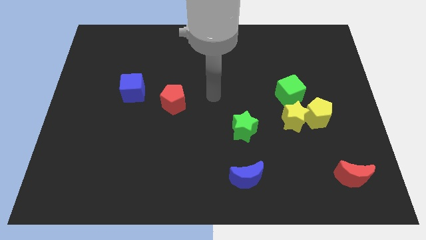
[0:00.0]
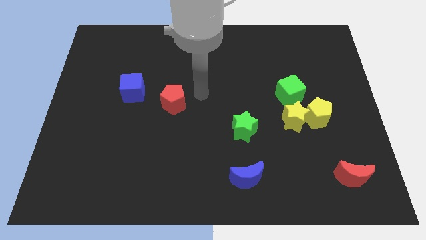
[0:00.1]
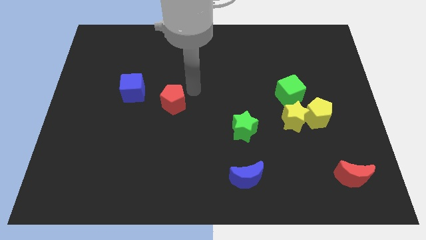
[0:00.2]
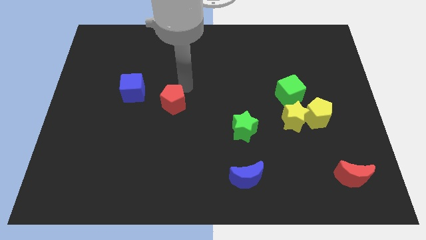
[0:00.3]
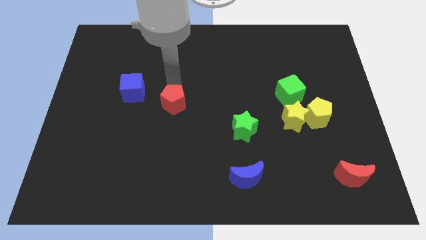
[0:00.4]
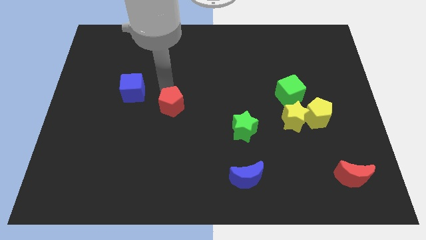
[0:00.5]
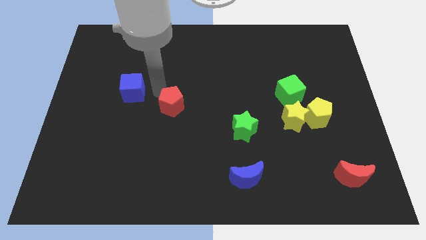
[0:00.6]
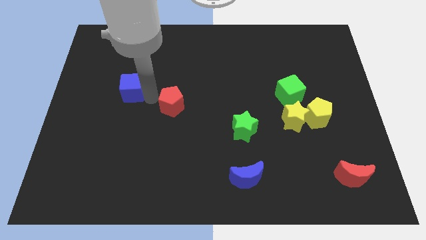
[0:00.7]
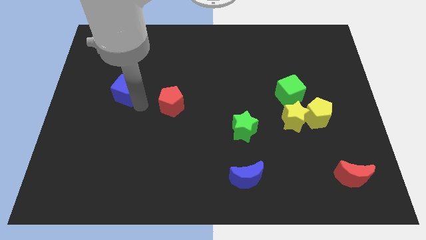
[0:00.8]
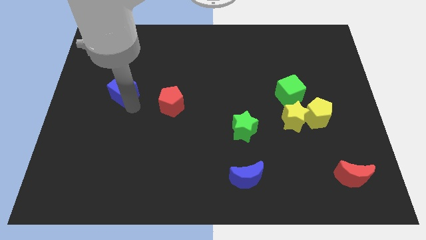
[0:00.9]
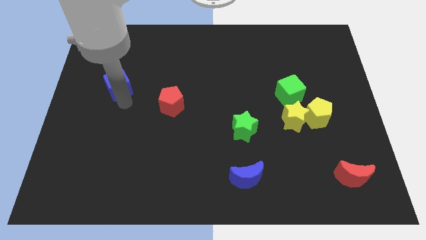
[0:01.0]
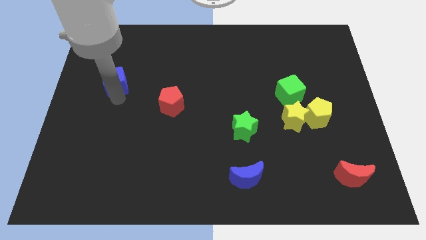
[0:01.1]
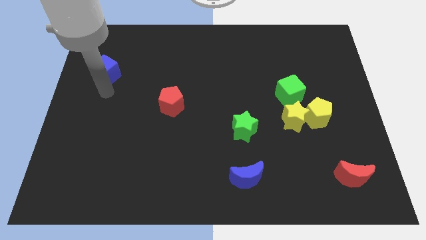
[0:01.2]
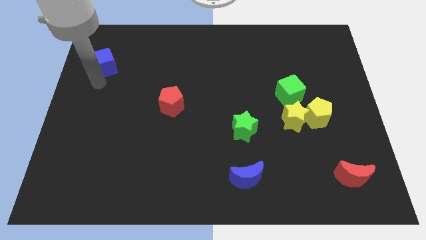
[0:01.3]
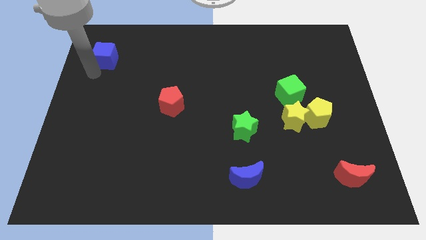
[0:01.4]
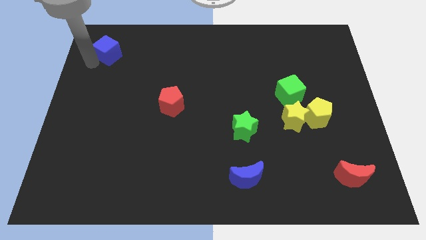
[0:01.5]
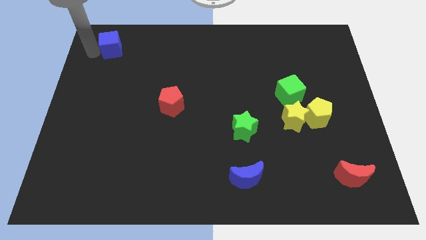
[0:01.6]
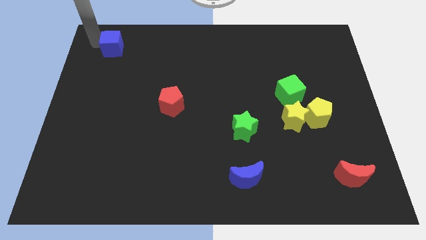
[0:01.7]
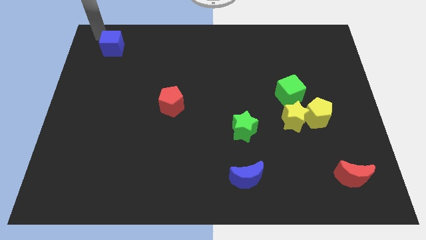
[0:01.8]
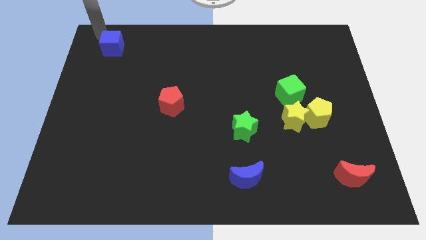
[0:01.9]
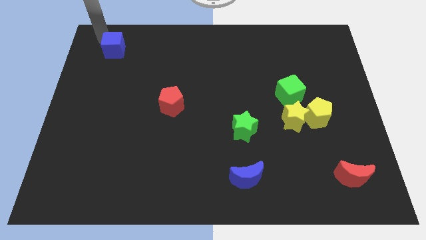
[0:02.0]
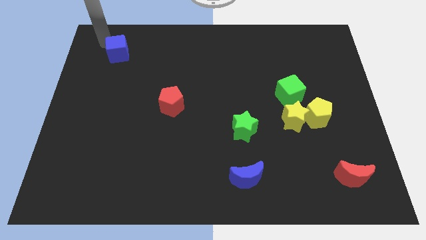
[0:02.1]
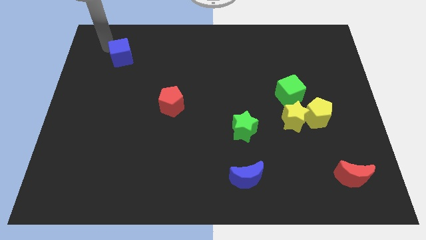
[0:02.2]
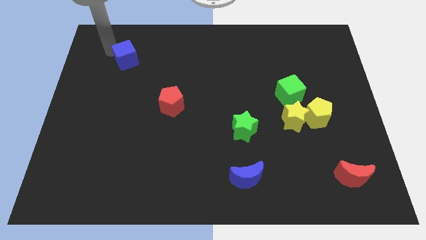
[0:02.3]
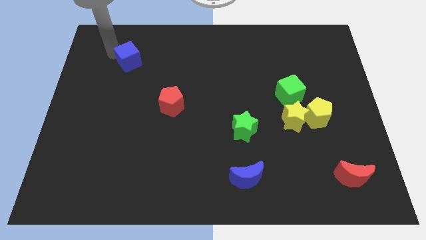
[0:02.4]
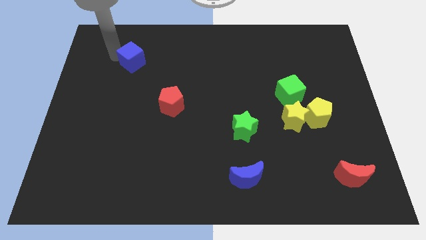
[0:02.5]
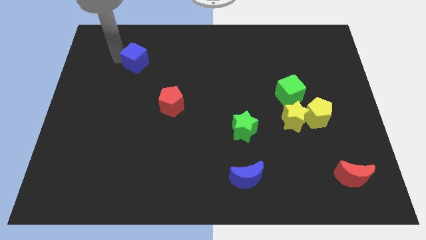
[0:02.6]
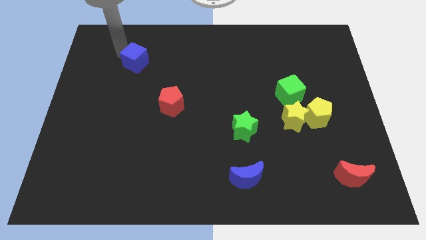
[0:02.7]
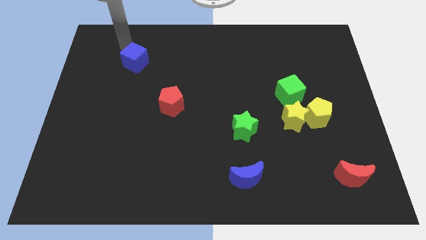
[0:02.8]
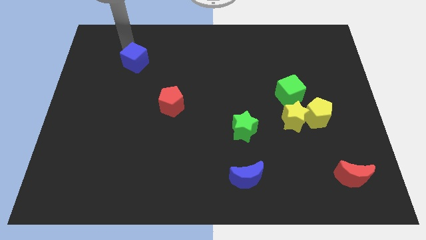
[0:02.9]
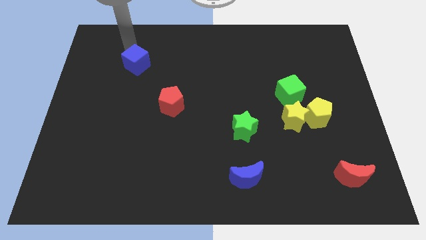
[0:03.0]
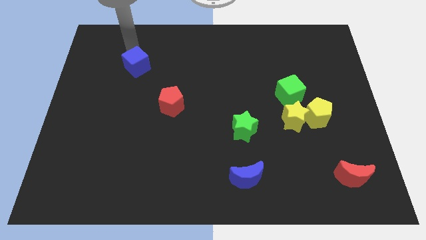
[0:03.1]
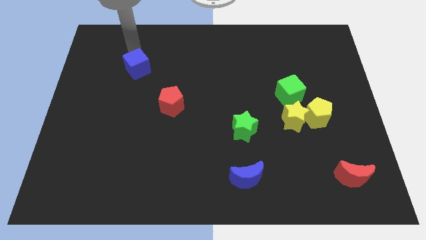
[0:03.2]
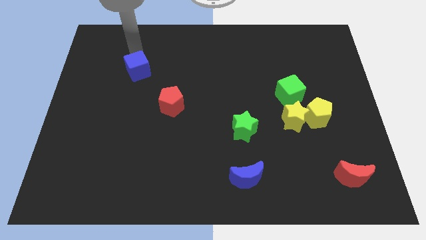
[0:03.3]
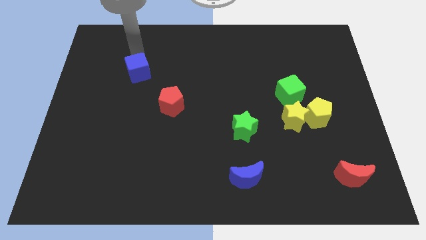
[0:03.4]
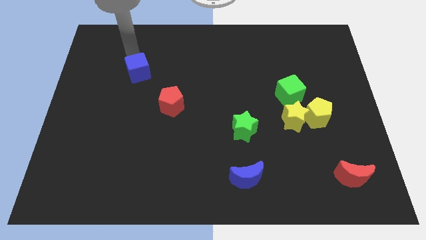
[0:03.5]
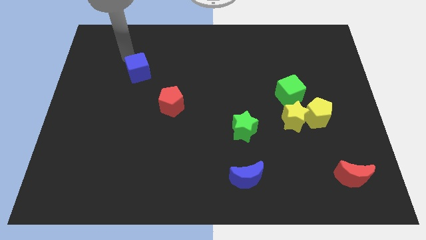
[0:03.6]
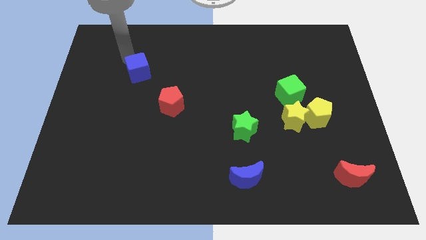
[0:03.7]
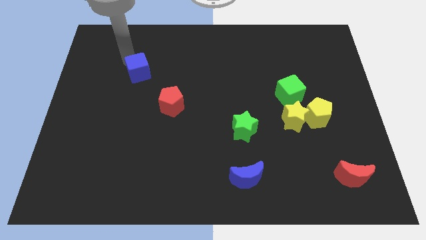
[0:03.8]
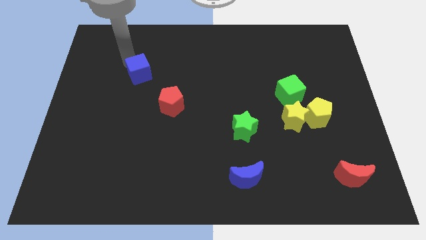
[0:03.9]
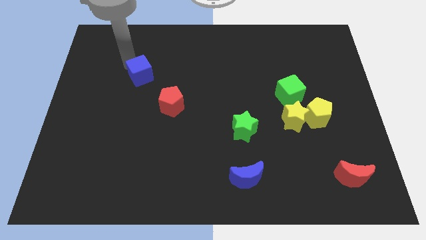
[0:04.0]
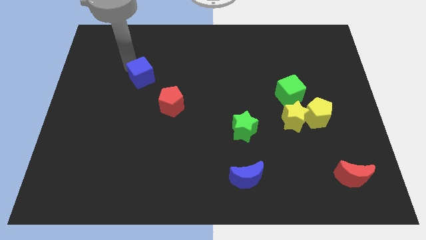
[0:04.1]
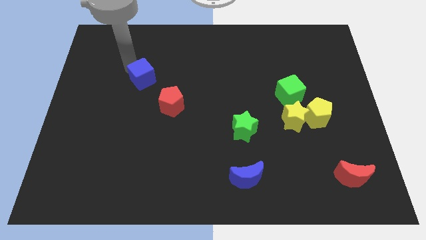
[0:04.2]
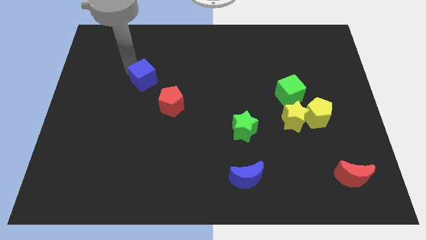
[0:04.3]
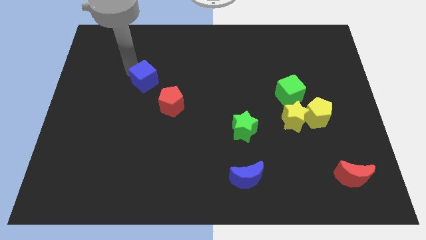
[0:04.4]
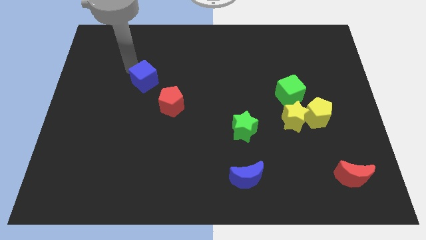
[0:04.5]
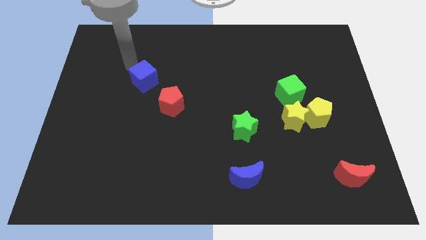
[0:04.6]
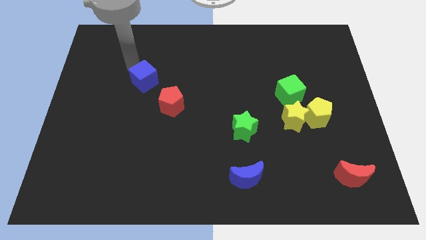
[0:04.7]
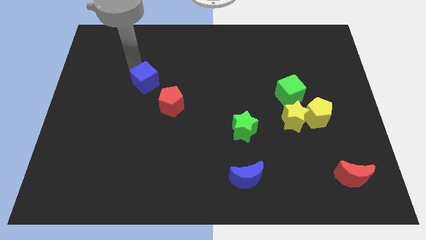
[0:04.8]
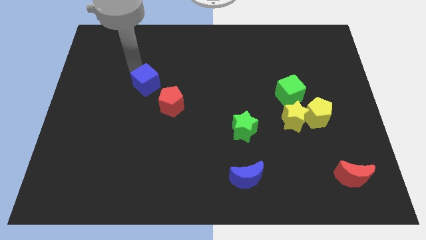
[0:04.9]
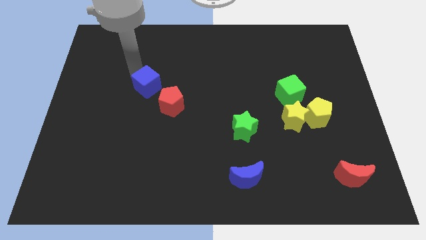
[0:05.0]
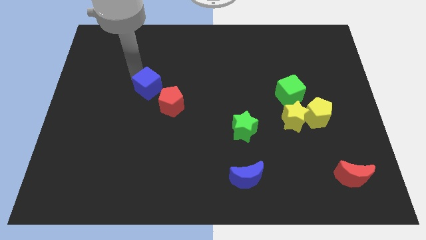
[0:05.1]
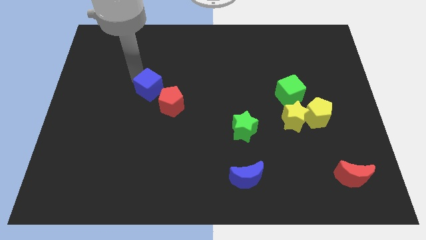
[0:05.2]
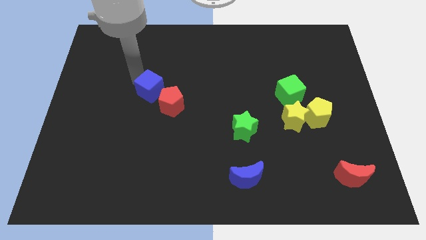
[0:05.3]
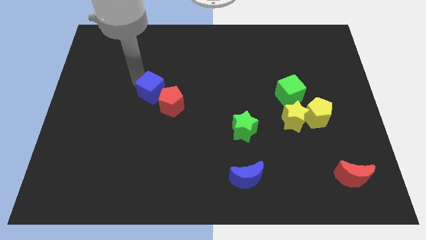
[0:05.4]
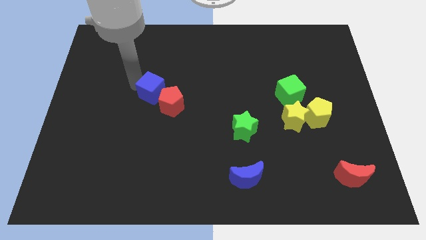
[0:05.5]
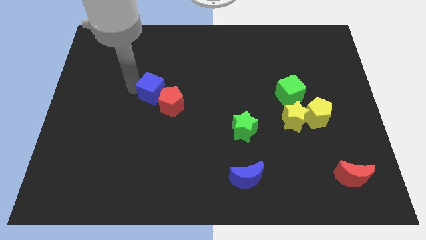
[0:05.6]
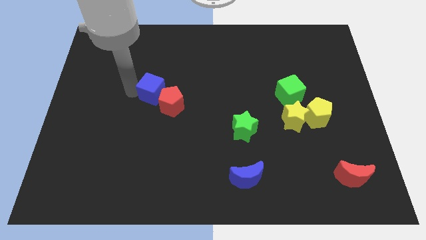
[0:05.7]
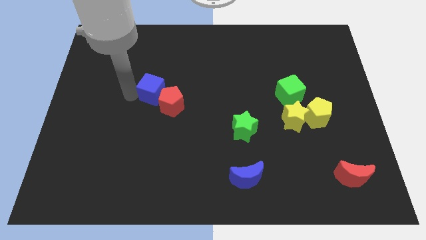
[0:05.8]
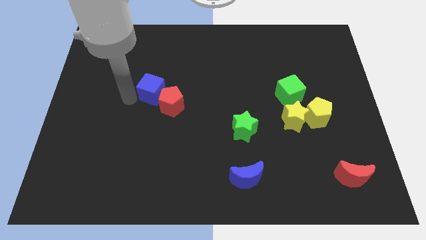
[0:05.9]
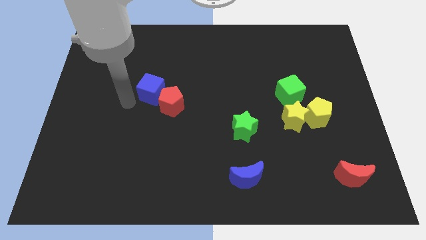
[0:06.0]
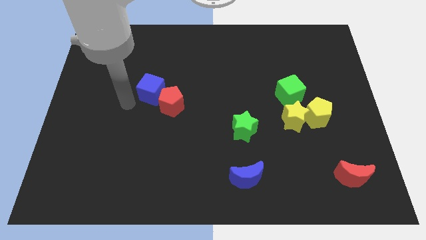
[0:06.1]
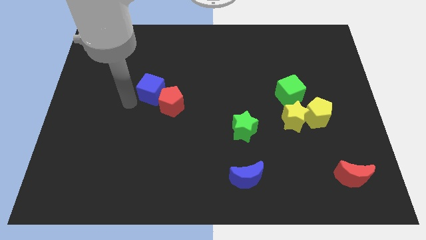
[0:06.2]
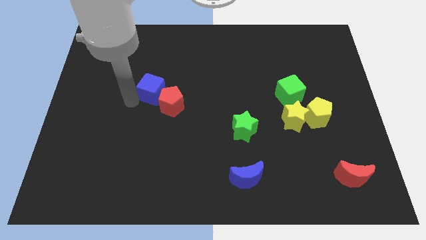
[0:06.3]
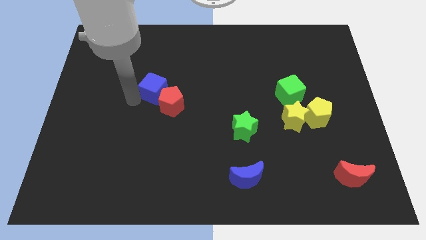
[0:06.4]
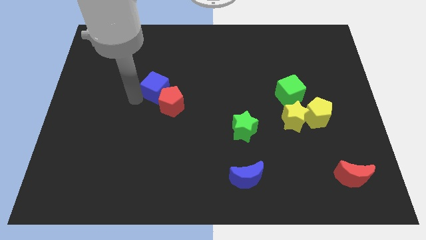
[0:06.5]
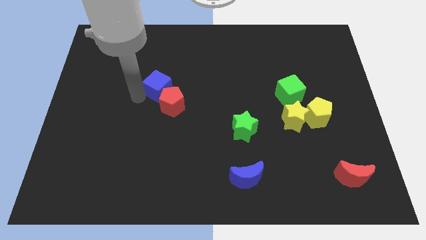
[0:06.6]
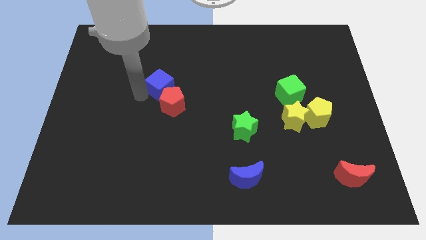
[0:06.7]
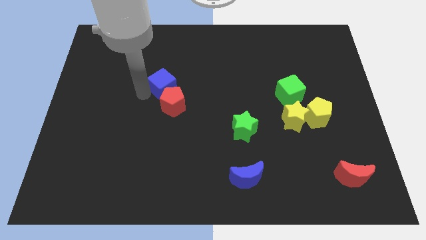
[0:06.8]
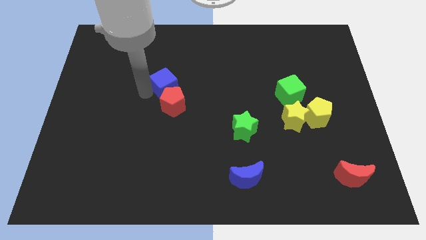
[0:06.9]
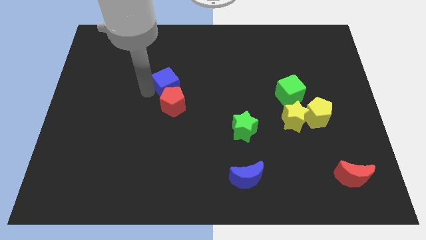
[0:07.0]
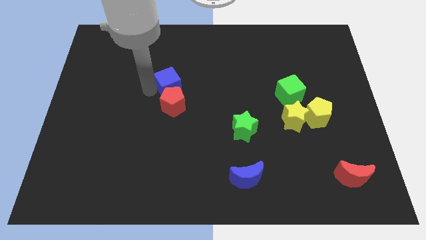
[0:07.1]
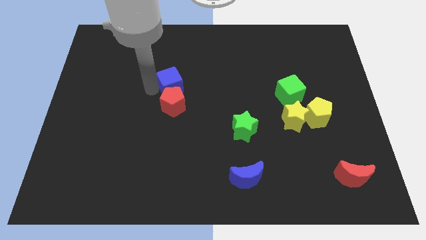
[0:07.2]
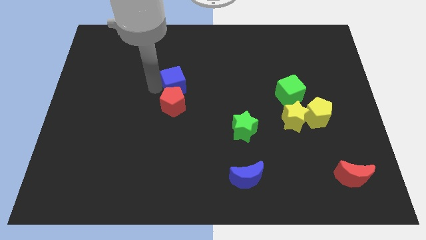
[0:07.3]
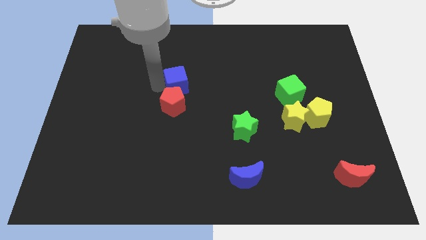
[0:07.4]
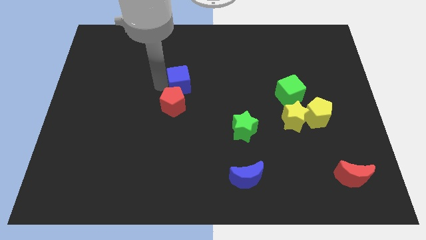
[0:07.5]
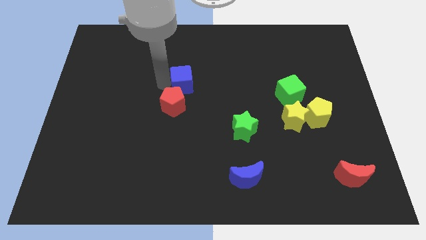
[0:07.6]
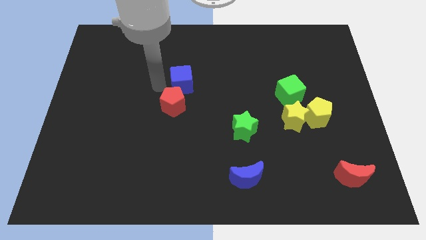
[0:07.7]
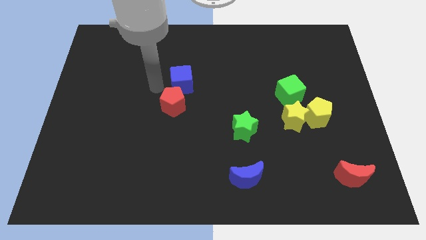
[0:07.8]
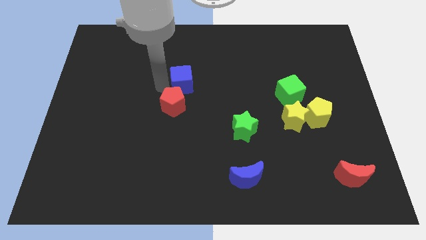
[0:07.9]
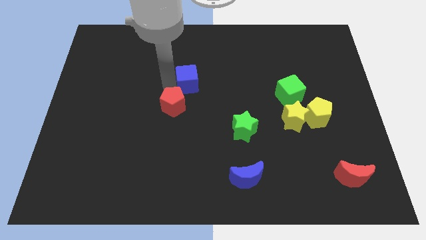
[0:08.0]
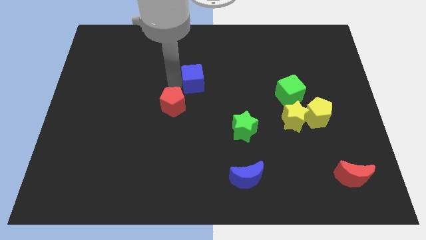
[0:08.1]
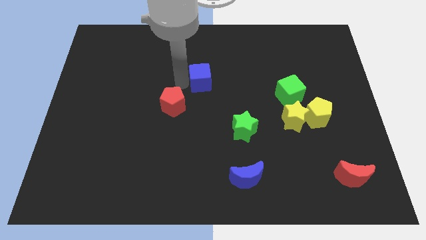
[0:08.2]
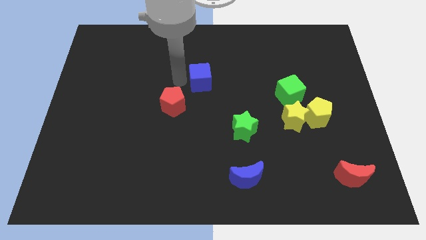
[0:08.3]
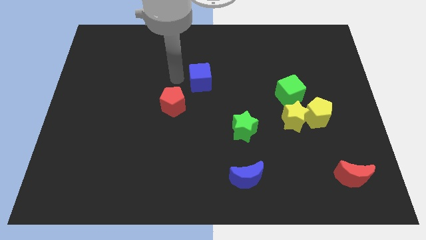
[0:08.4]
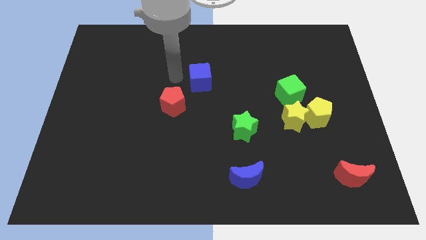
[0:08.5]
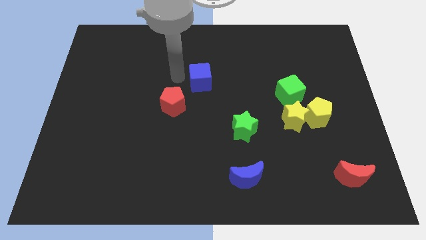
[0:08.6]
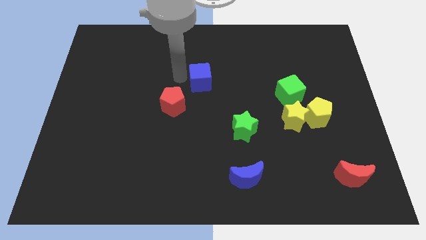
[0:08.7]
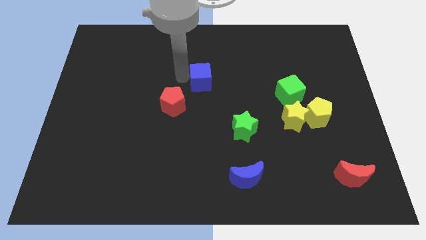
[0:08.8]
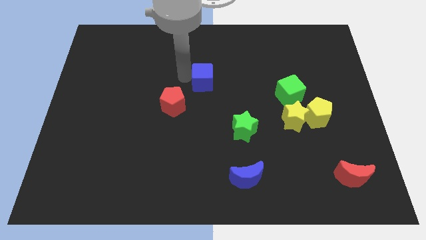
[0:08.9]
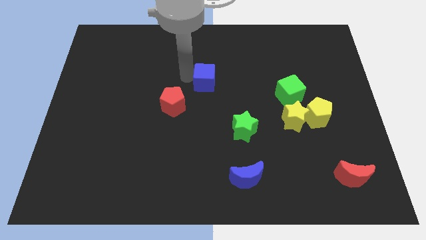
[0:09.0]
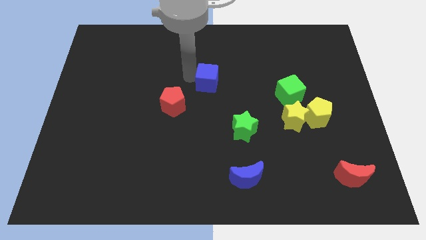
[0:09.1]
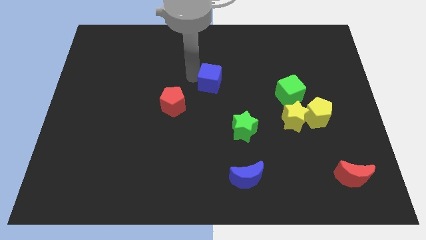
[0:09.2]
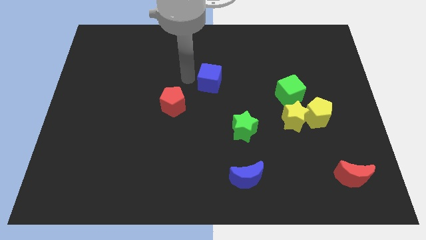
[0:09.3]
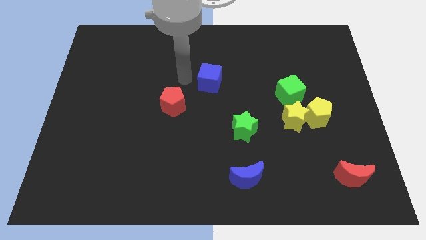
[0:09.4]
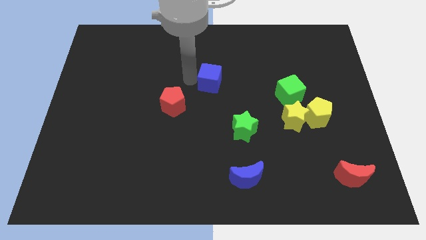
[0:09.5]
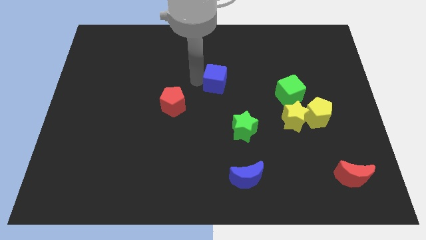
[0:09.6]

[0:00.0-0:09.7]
move the blue cube to the right
